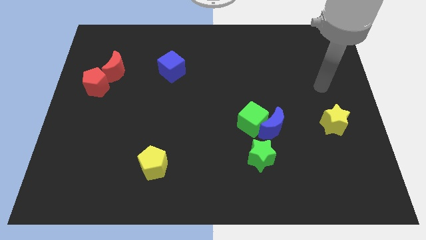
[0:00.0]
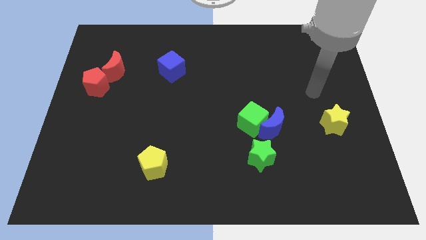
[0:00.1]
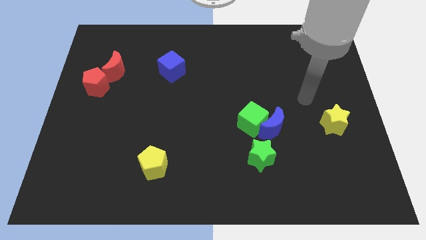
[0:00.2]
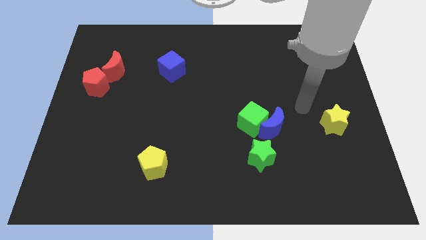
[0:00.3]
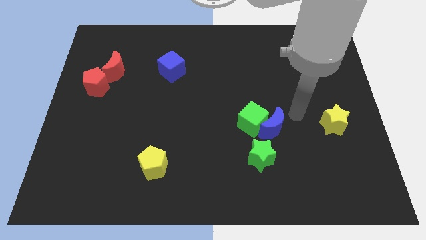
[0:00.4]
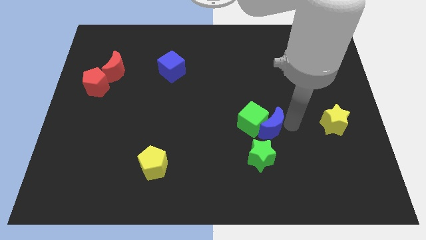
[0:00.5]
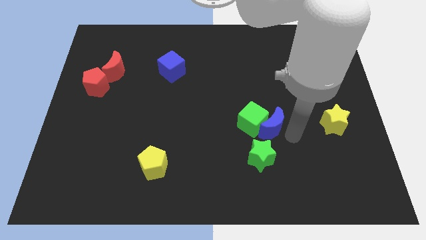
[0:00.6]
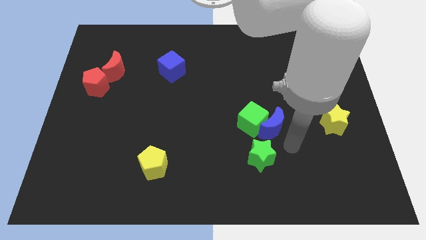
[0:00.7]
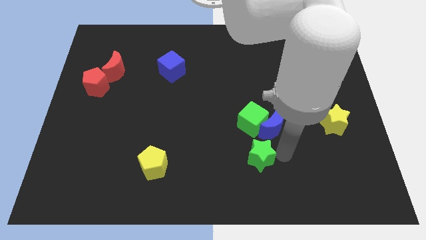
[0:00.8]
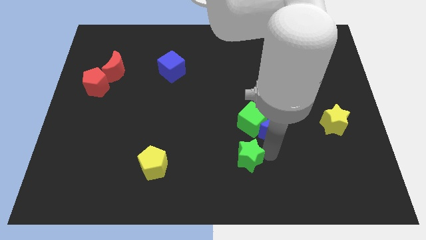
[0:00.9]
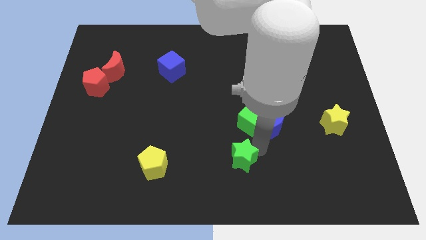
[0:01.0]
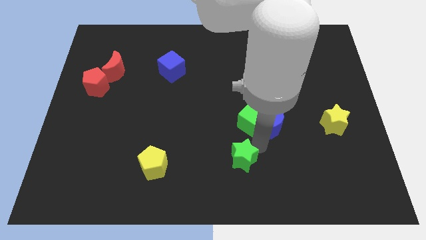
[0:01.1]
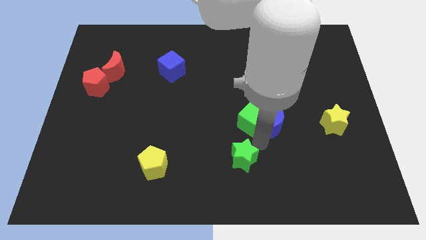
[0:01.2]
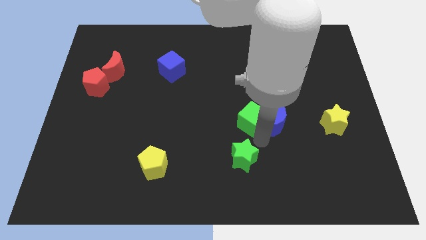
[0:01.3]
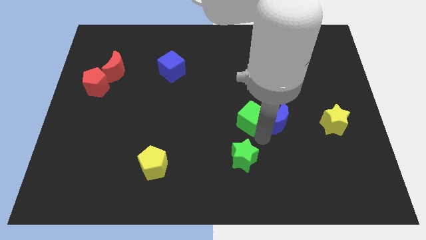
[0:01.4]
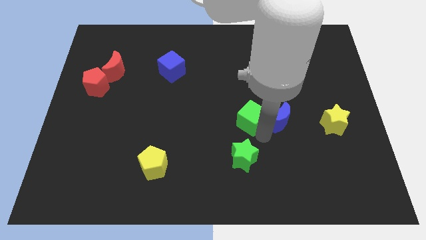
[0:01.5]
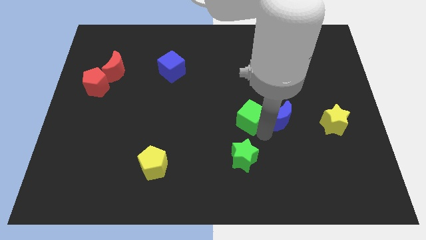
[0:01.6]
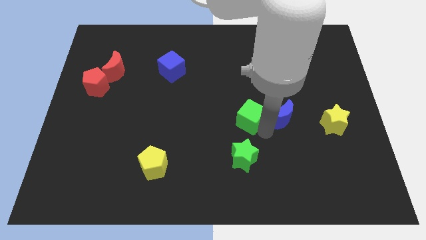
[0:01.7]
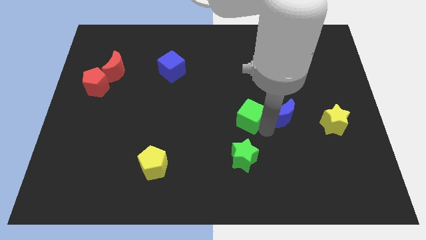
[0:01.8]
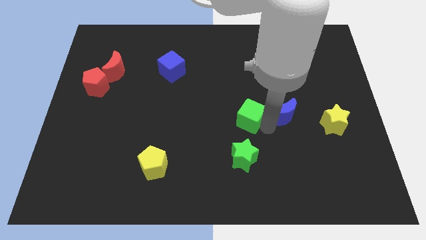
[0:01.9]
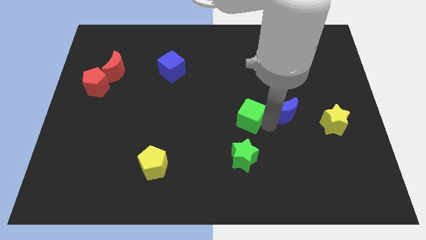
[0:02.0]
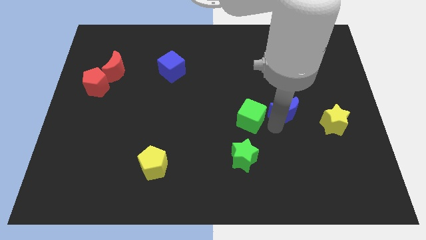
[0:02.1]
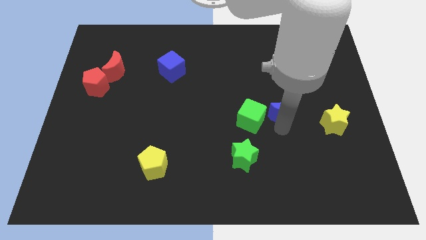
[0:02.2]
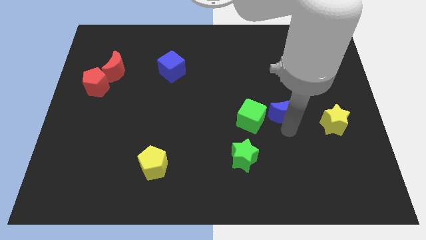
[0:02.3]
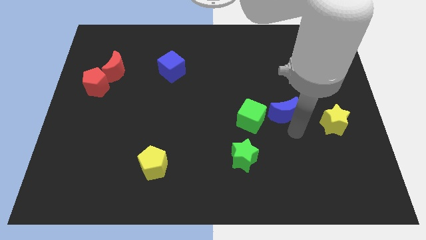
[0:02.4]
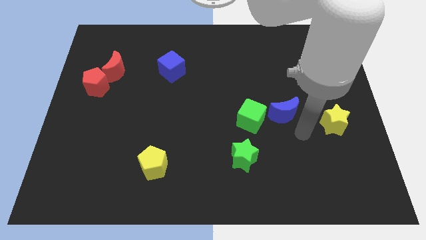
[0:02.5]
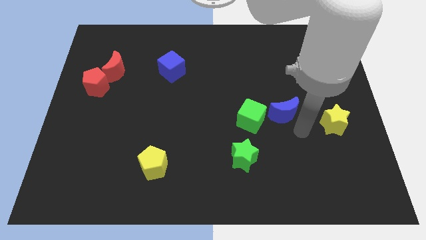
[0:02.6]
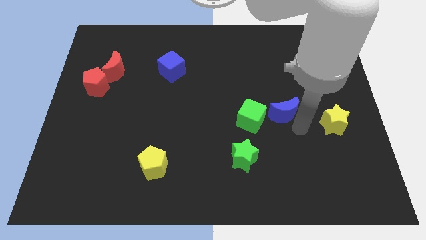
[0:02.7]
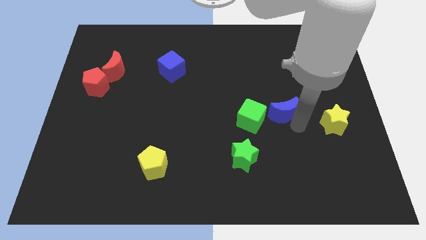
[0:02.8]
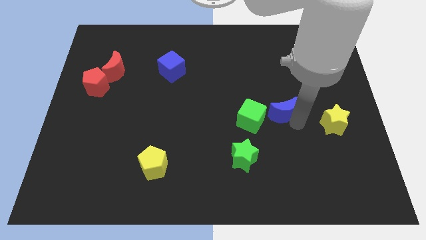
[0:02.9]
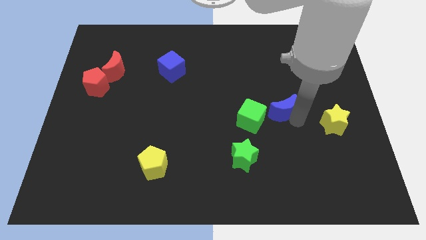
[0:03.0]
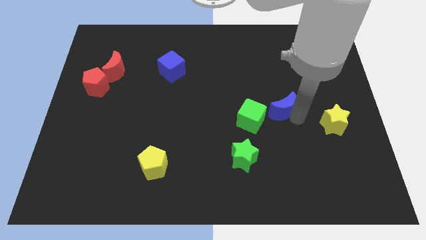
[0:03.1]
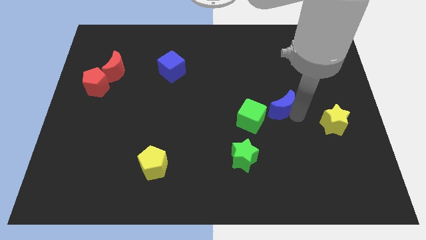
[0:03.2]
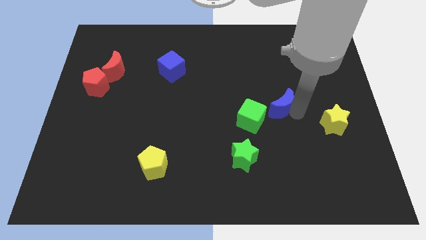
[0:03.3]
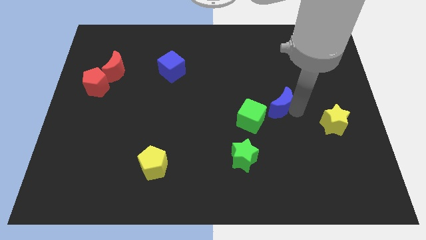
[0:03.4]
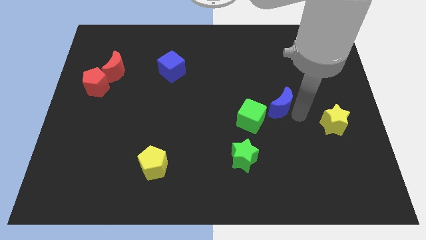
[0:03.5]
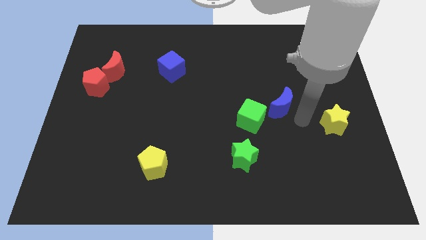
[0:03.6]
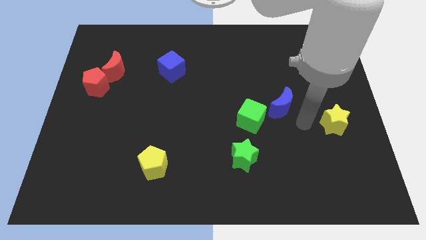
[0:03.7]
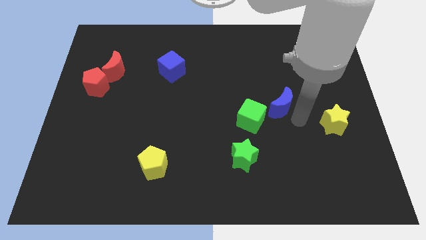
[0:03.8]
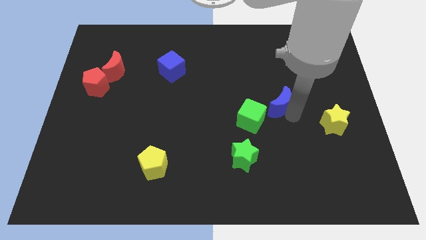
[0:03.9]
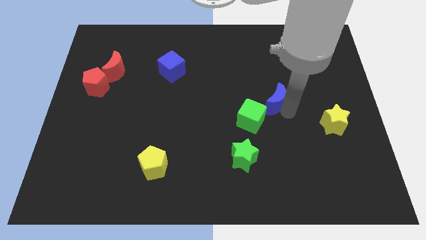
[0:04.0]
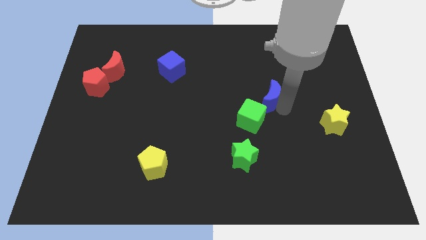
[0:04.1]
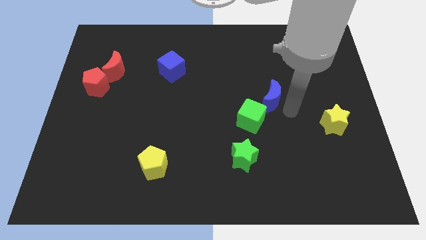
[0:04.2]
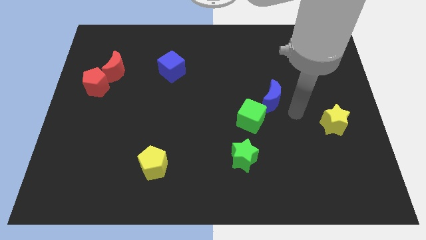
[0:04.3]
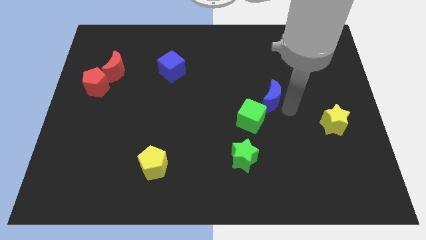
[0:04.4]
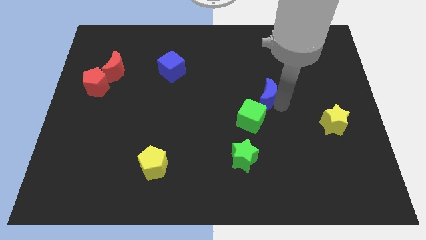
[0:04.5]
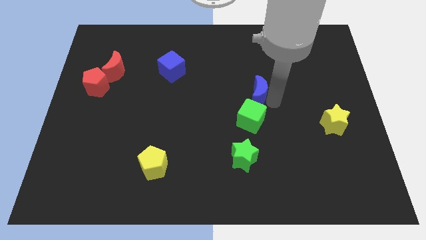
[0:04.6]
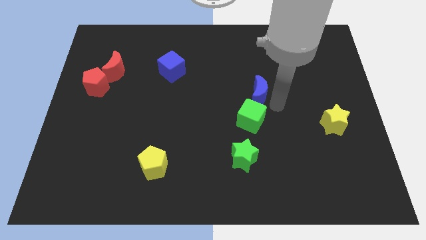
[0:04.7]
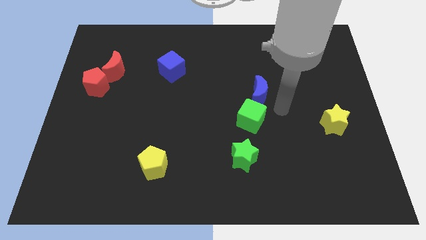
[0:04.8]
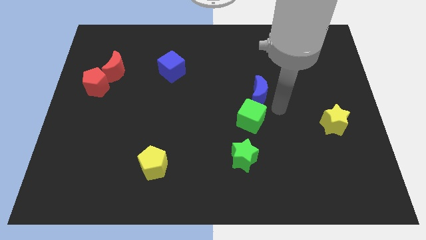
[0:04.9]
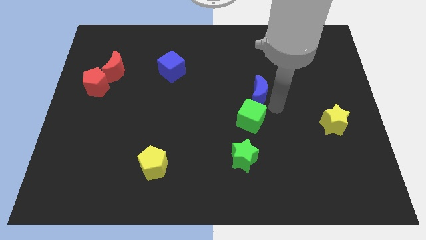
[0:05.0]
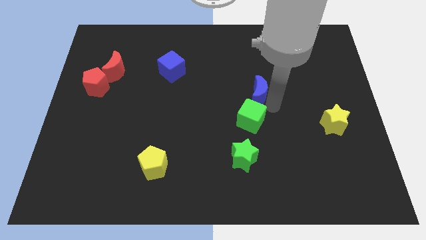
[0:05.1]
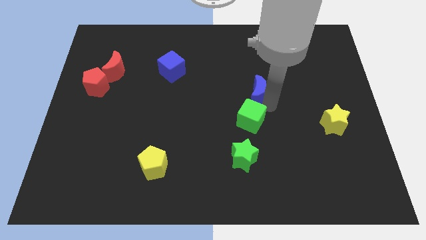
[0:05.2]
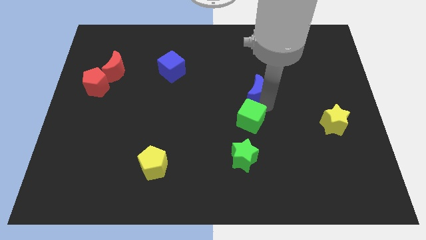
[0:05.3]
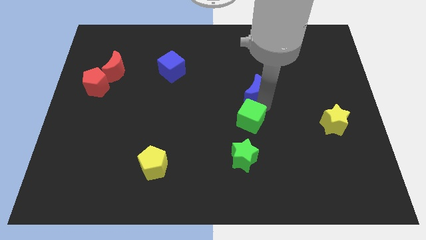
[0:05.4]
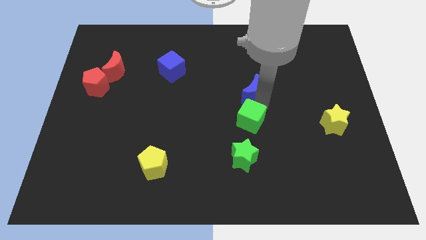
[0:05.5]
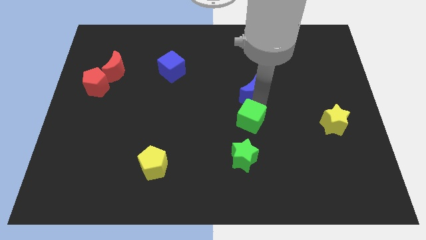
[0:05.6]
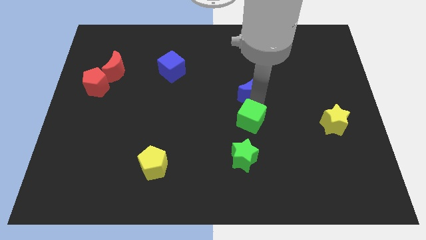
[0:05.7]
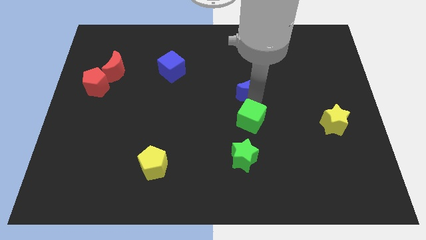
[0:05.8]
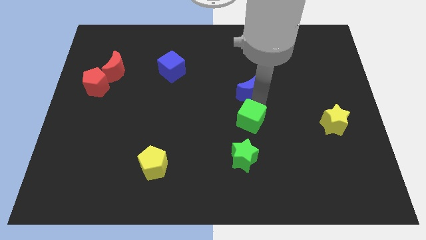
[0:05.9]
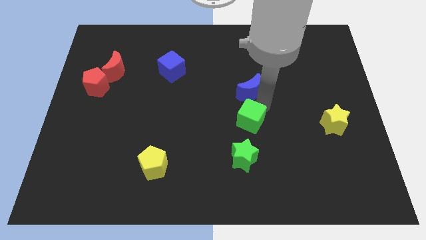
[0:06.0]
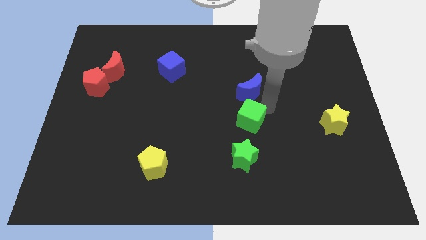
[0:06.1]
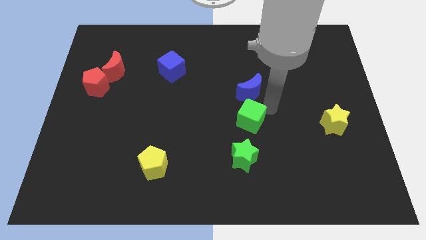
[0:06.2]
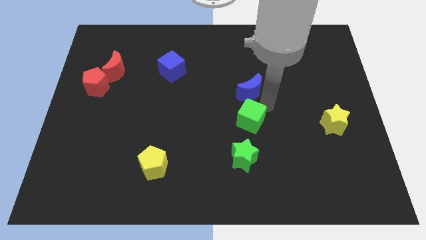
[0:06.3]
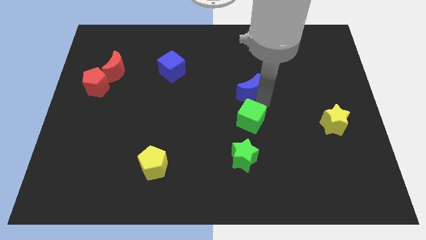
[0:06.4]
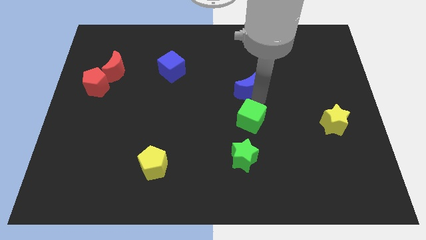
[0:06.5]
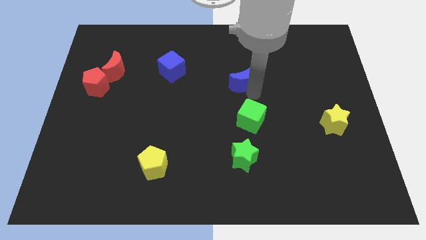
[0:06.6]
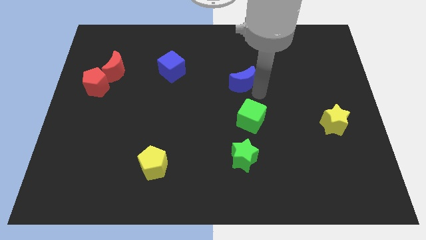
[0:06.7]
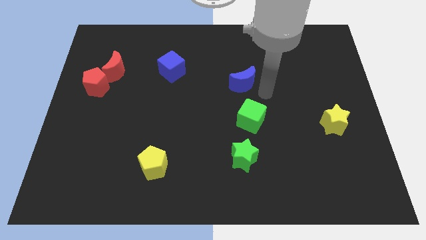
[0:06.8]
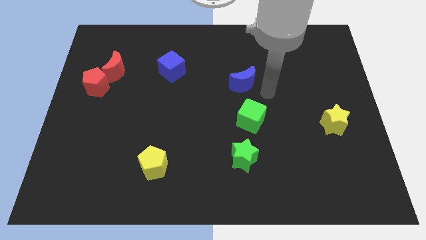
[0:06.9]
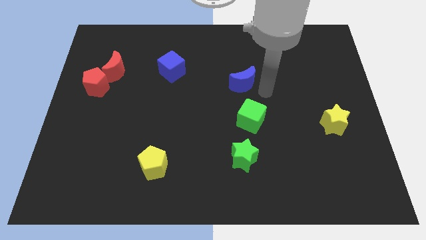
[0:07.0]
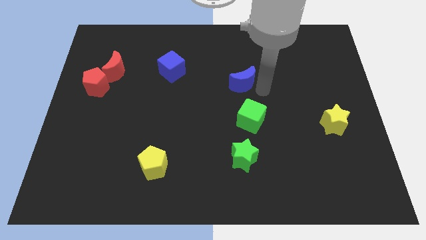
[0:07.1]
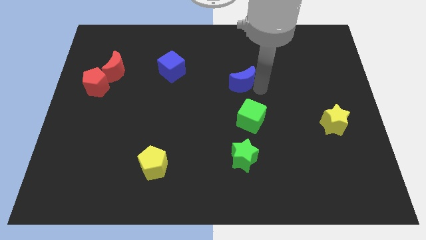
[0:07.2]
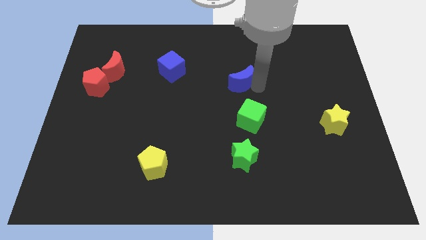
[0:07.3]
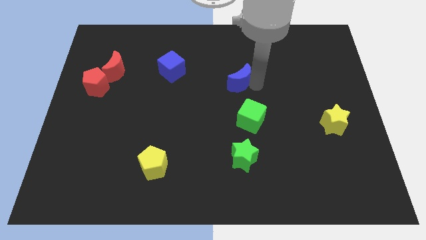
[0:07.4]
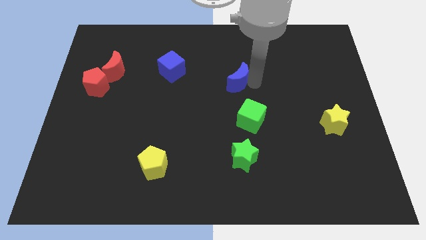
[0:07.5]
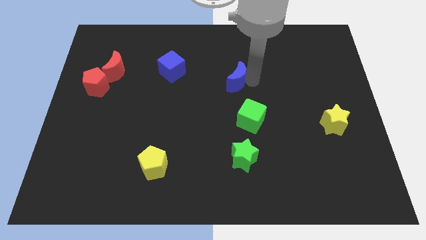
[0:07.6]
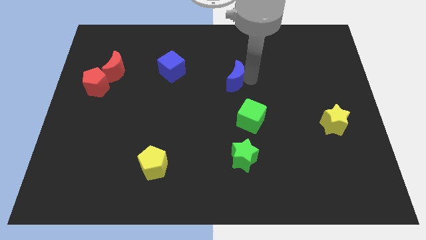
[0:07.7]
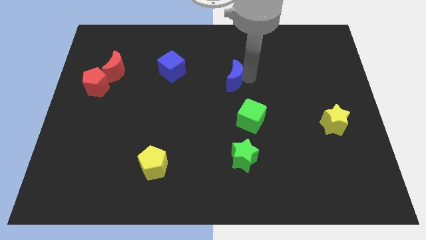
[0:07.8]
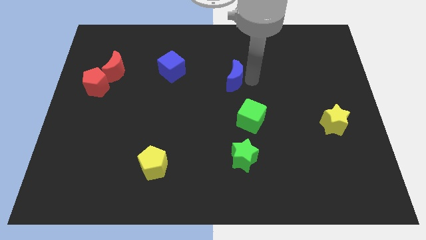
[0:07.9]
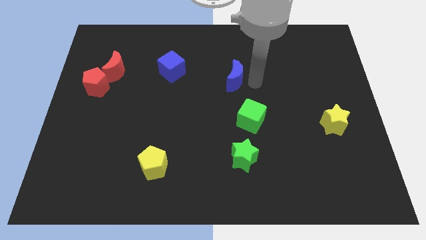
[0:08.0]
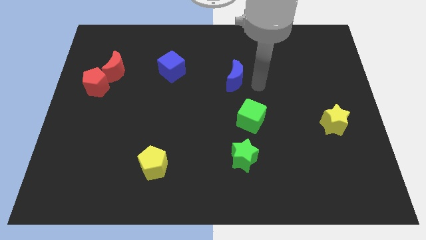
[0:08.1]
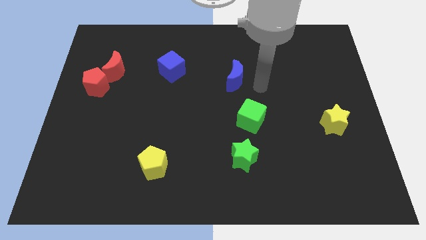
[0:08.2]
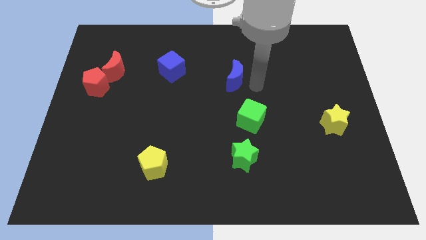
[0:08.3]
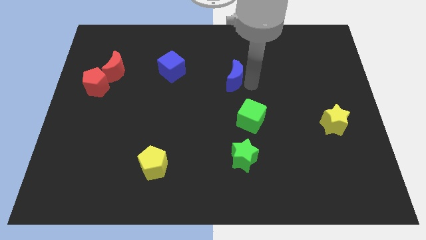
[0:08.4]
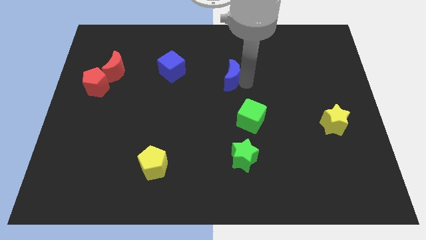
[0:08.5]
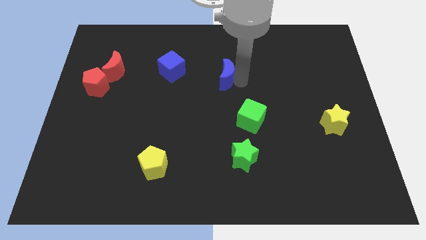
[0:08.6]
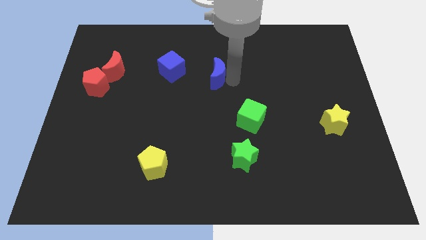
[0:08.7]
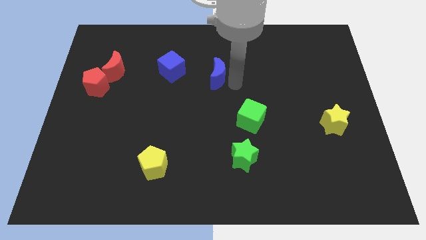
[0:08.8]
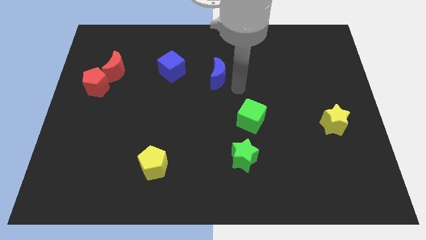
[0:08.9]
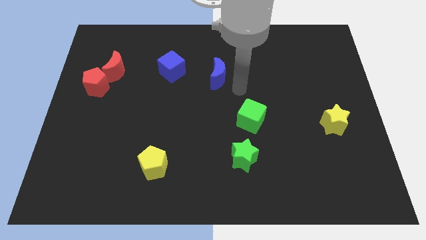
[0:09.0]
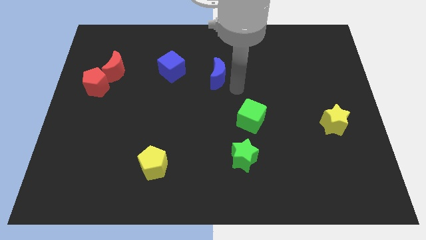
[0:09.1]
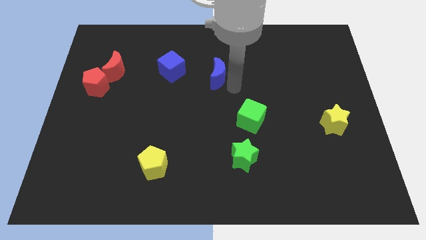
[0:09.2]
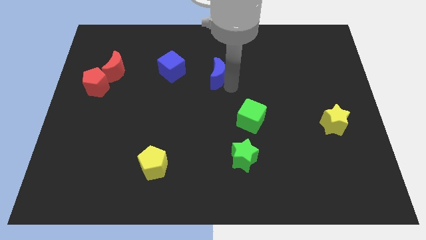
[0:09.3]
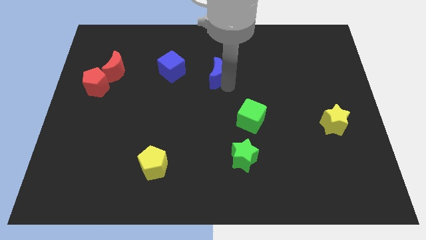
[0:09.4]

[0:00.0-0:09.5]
push the blue moon diagonally up and to the left
